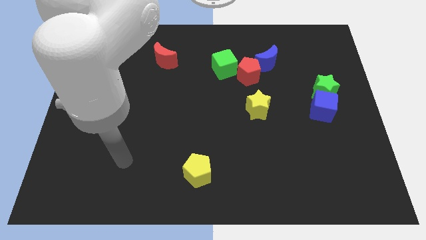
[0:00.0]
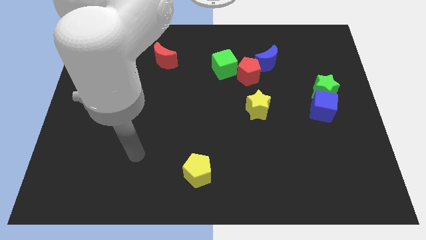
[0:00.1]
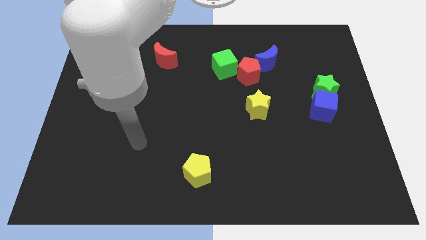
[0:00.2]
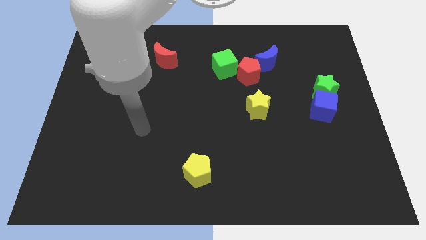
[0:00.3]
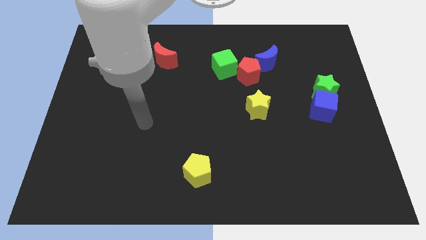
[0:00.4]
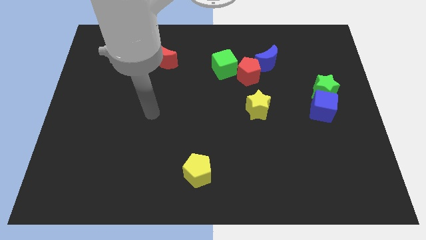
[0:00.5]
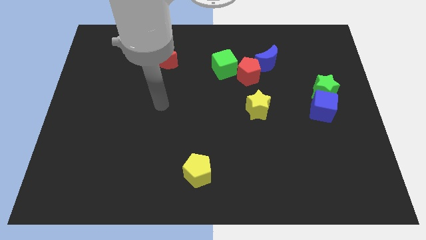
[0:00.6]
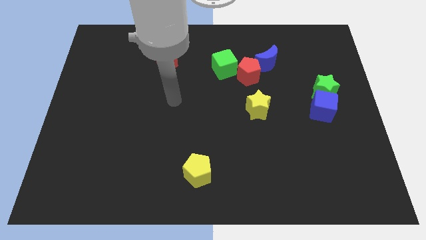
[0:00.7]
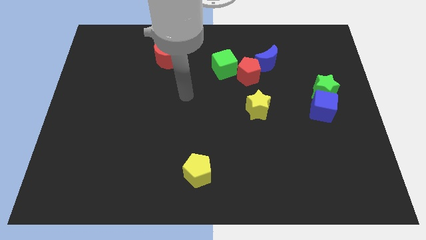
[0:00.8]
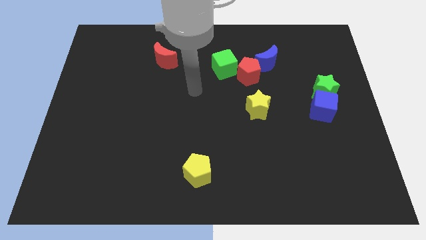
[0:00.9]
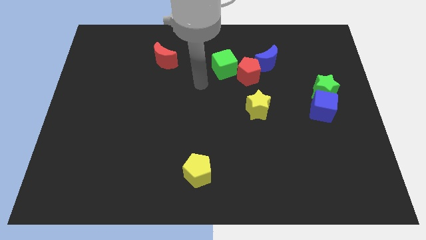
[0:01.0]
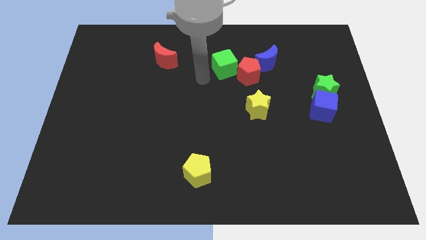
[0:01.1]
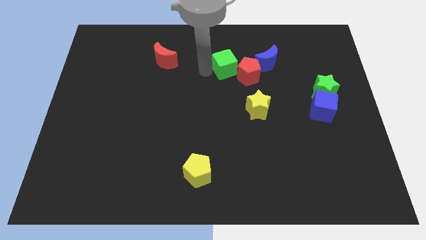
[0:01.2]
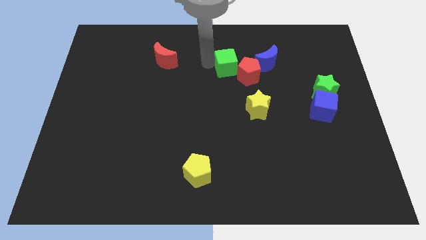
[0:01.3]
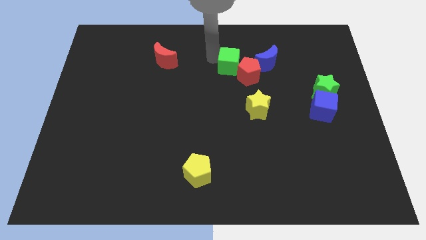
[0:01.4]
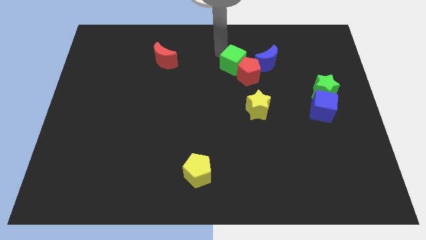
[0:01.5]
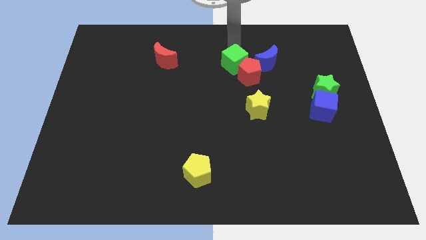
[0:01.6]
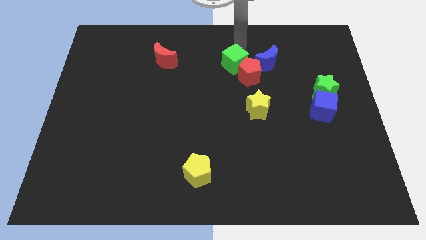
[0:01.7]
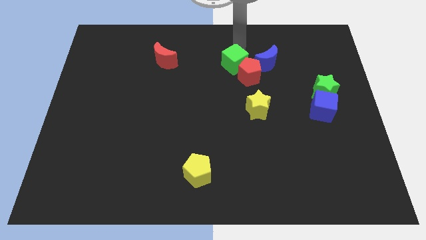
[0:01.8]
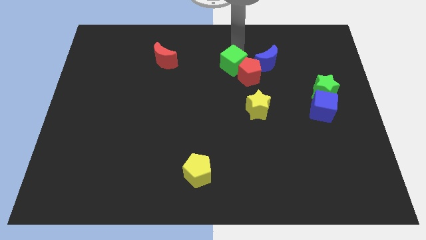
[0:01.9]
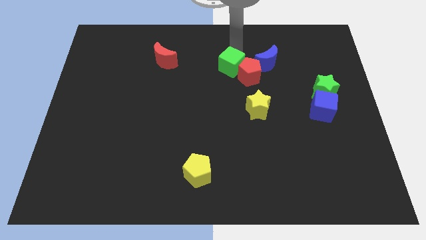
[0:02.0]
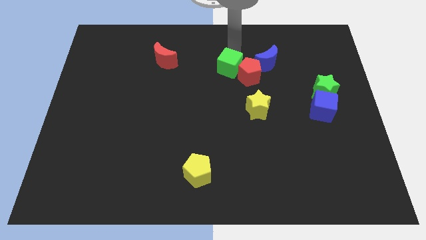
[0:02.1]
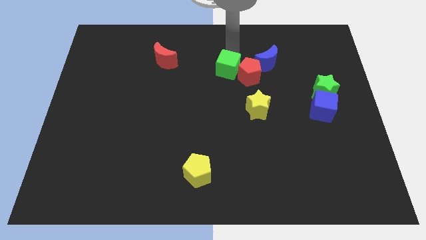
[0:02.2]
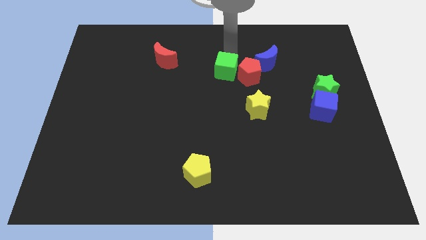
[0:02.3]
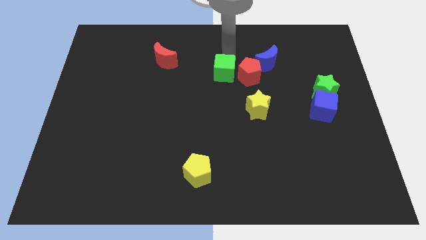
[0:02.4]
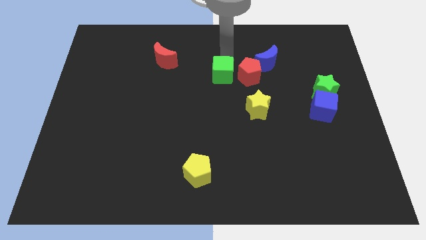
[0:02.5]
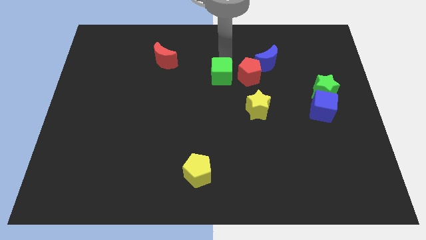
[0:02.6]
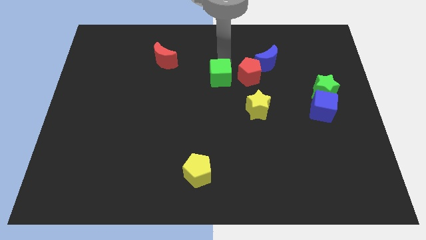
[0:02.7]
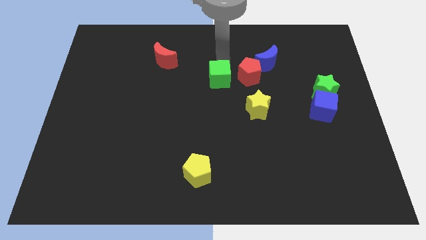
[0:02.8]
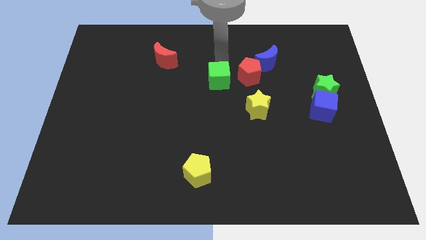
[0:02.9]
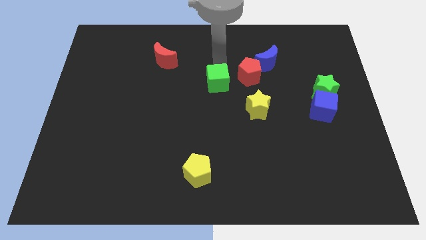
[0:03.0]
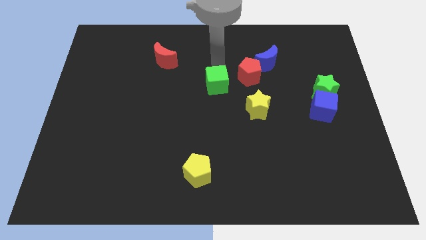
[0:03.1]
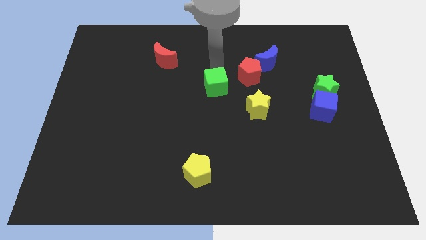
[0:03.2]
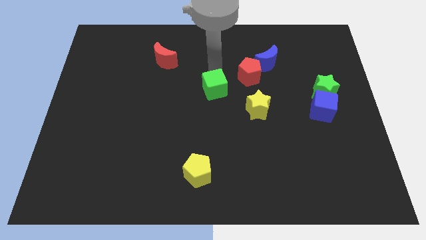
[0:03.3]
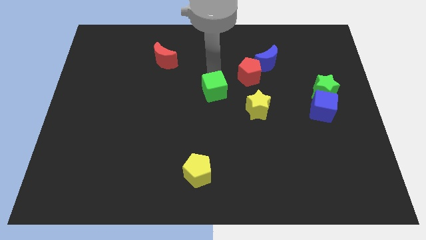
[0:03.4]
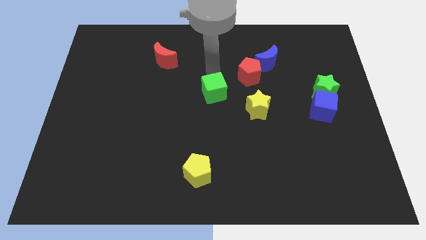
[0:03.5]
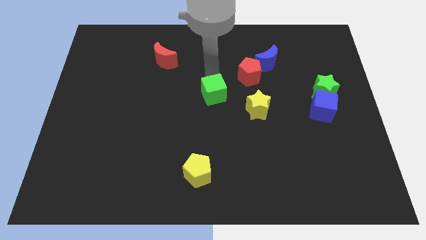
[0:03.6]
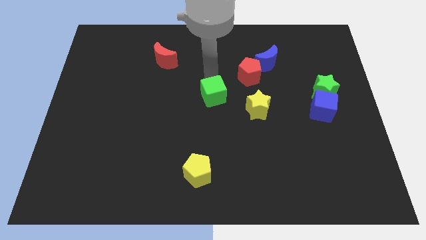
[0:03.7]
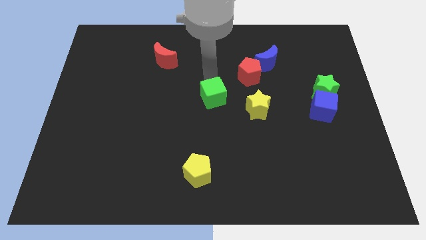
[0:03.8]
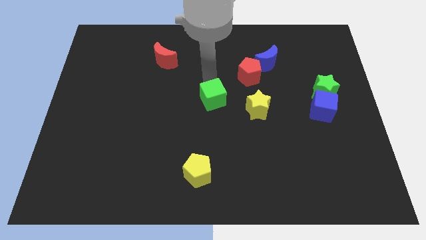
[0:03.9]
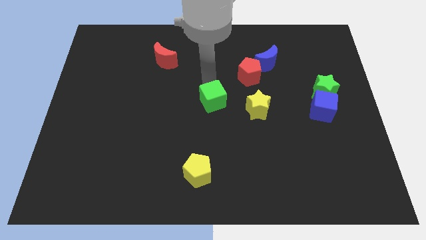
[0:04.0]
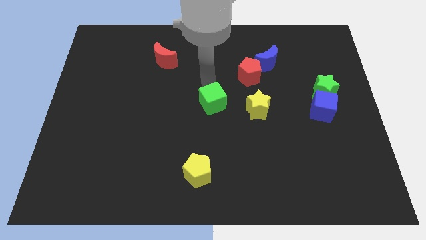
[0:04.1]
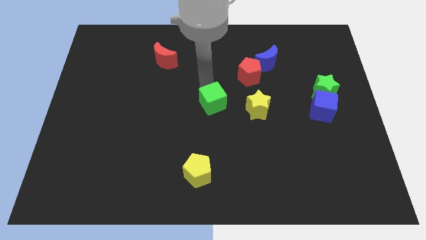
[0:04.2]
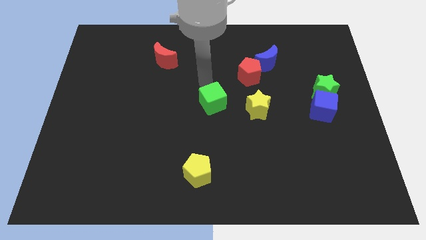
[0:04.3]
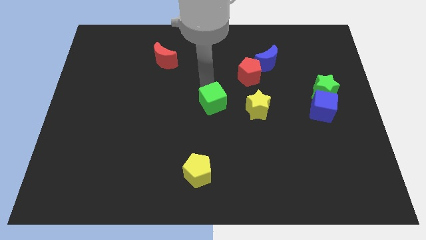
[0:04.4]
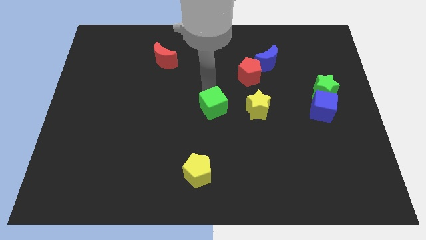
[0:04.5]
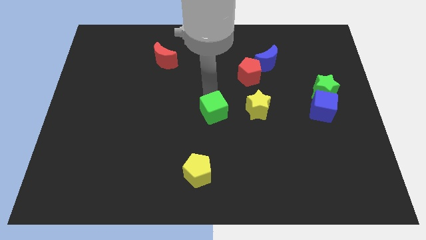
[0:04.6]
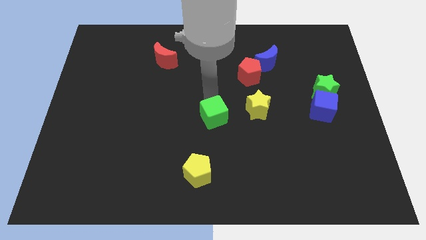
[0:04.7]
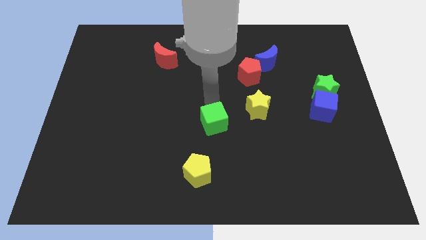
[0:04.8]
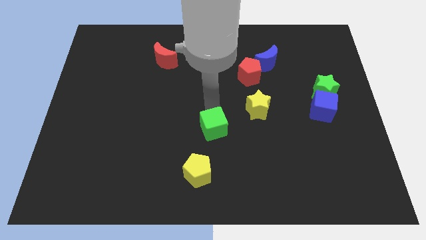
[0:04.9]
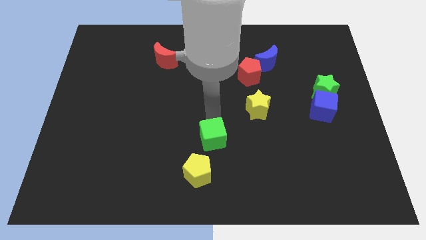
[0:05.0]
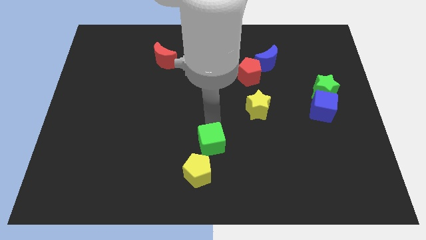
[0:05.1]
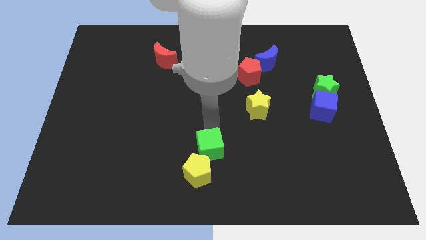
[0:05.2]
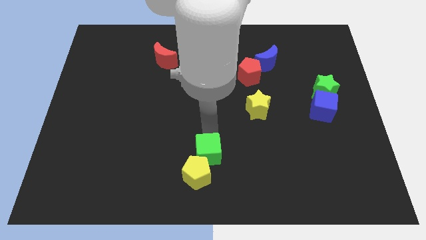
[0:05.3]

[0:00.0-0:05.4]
put the green cube to the yellow pentagon

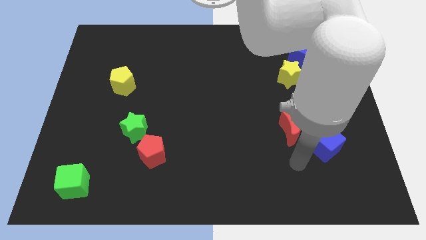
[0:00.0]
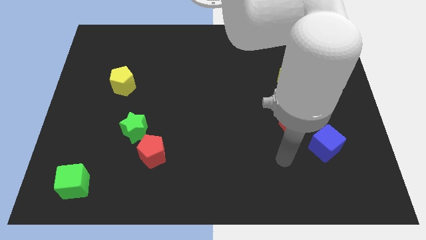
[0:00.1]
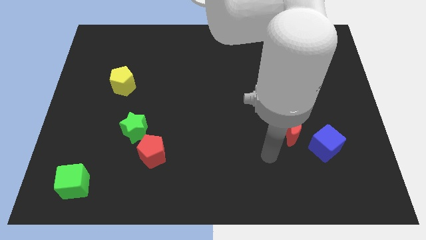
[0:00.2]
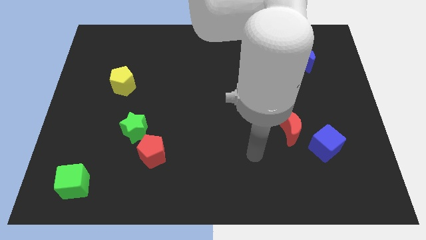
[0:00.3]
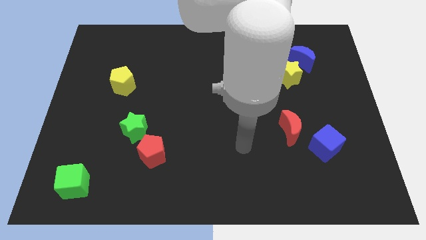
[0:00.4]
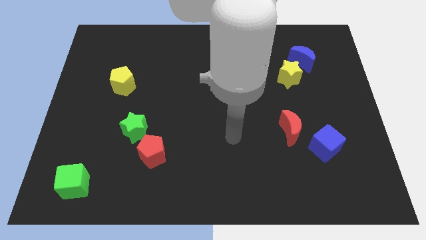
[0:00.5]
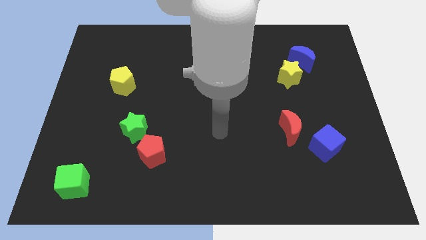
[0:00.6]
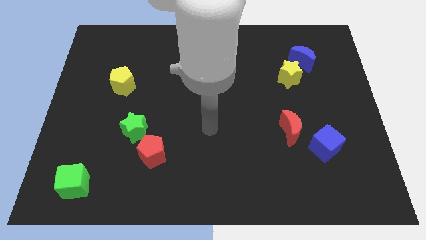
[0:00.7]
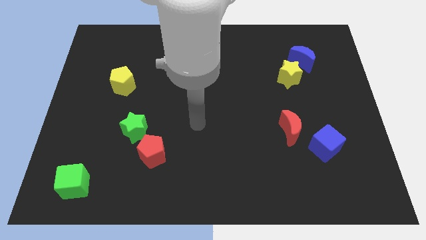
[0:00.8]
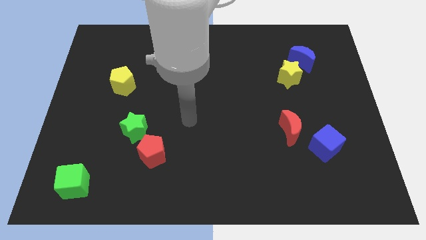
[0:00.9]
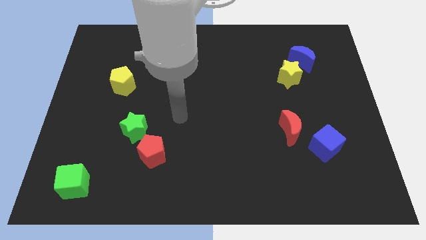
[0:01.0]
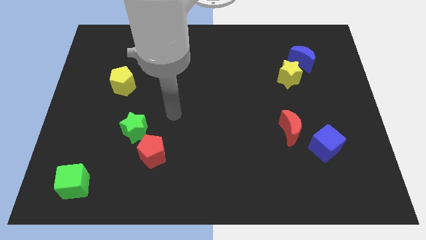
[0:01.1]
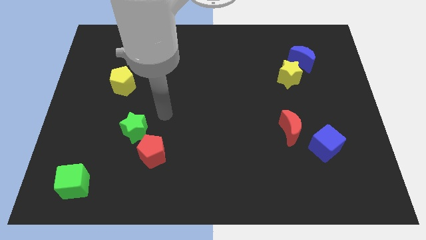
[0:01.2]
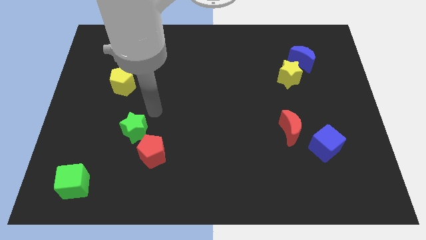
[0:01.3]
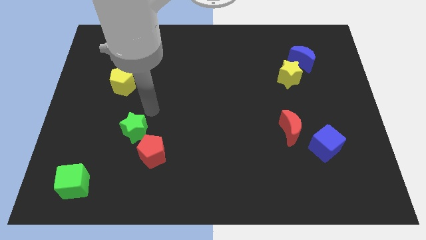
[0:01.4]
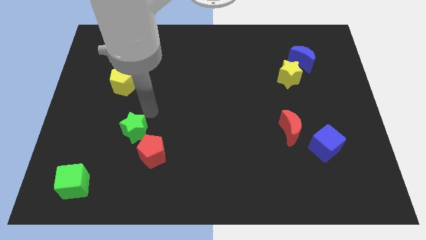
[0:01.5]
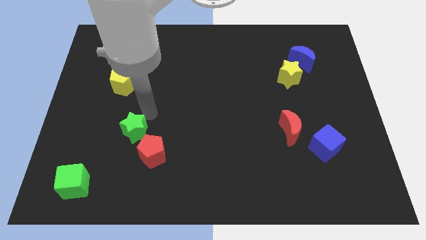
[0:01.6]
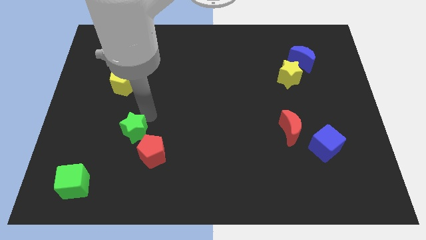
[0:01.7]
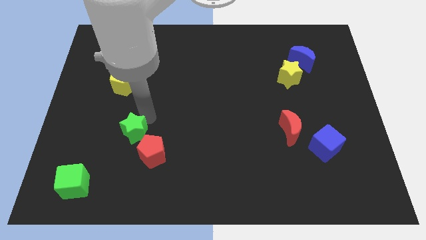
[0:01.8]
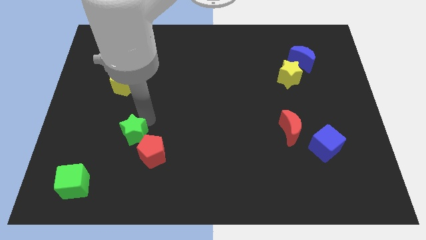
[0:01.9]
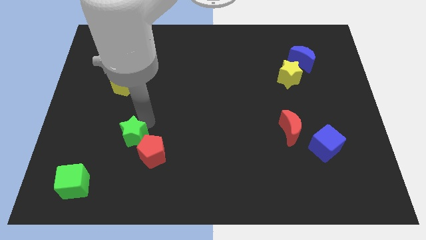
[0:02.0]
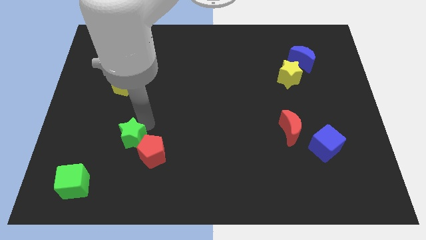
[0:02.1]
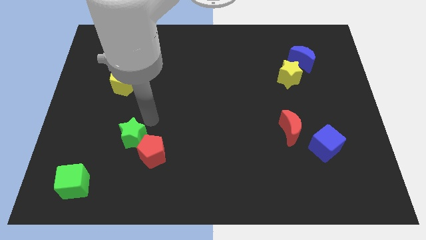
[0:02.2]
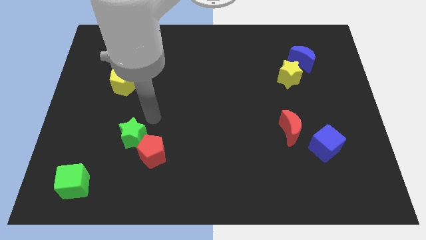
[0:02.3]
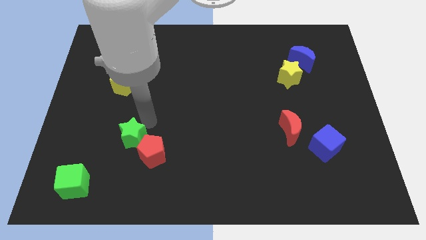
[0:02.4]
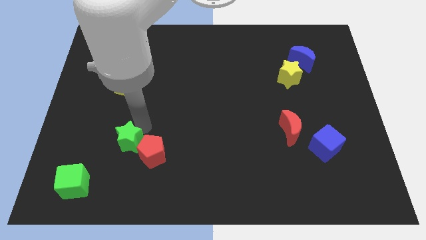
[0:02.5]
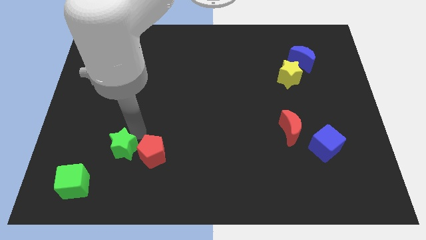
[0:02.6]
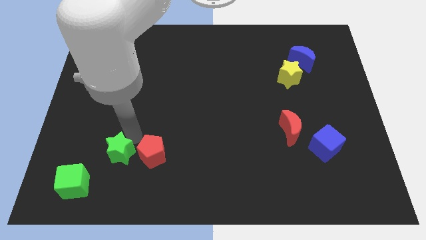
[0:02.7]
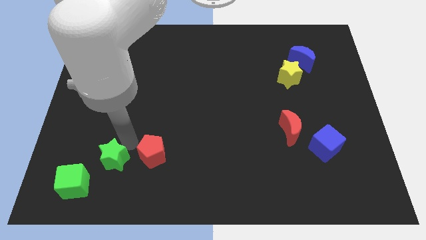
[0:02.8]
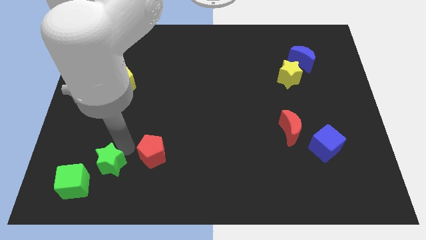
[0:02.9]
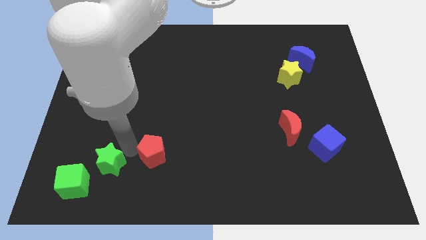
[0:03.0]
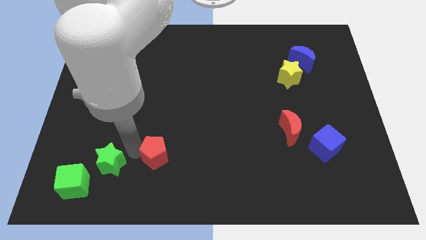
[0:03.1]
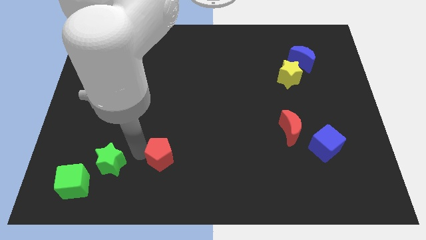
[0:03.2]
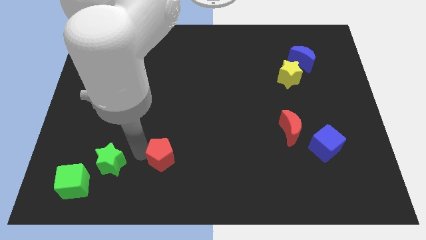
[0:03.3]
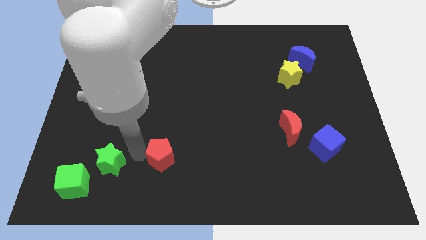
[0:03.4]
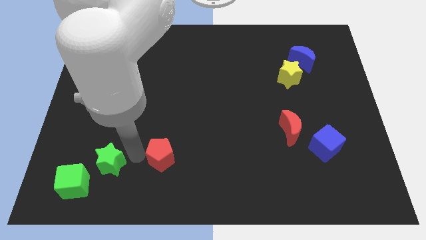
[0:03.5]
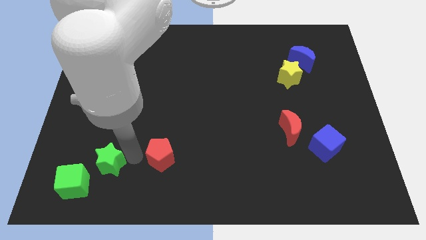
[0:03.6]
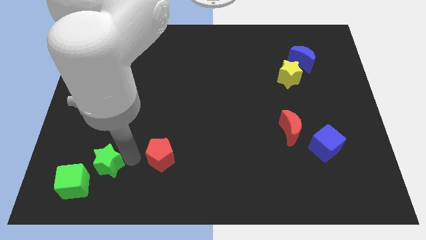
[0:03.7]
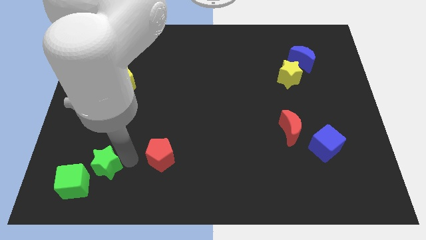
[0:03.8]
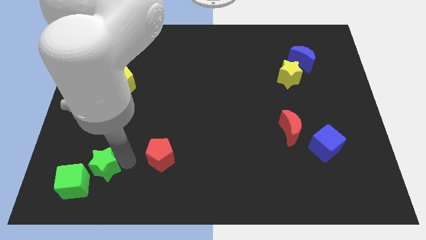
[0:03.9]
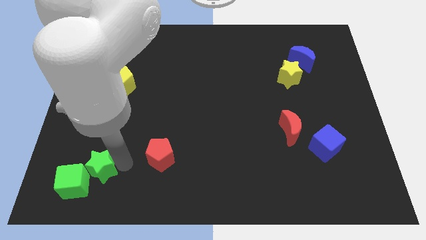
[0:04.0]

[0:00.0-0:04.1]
move the green star to the green cube
